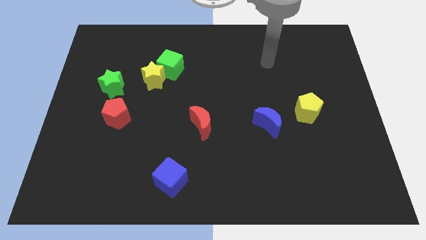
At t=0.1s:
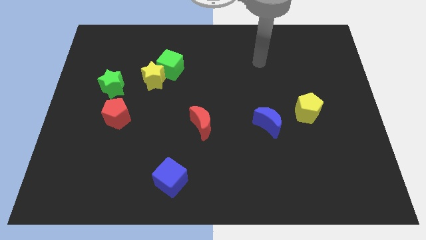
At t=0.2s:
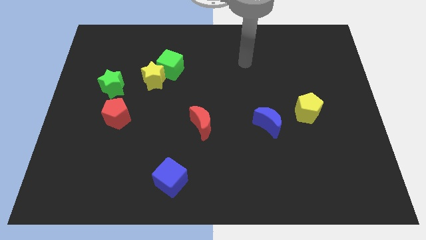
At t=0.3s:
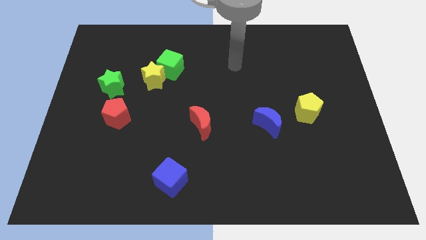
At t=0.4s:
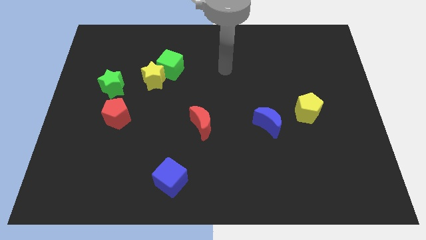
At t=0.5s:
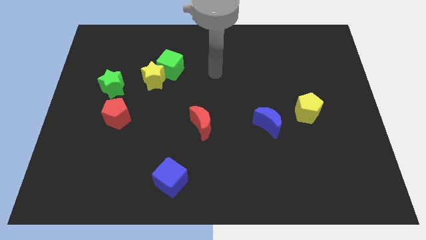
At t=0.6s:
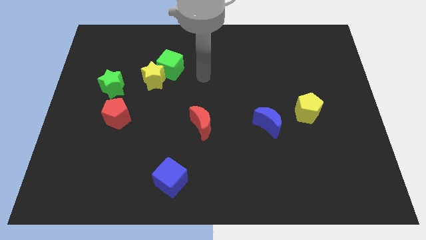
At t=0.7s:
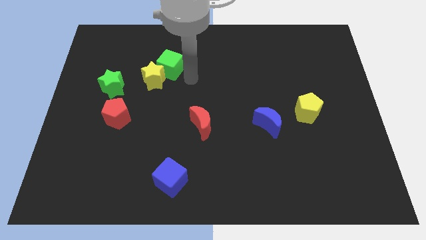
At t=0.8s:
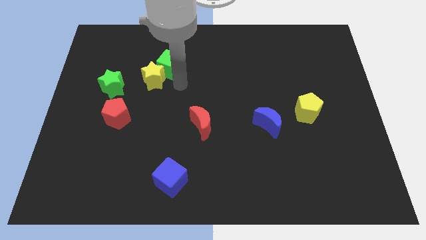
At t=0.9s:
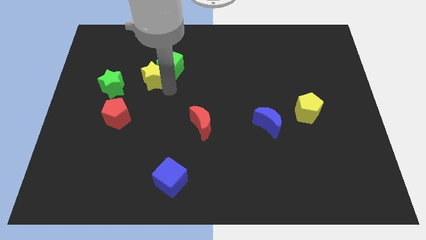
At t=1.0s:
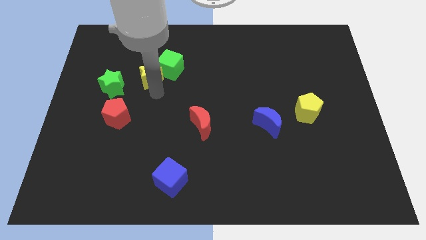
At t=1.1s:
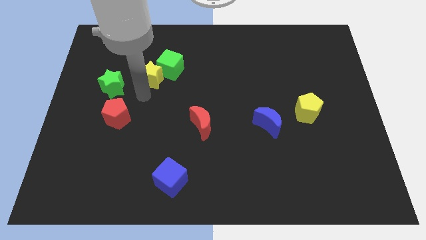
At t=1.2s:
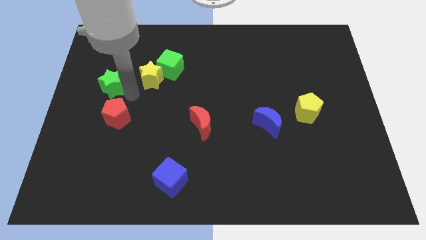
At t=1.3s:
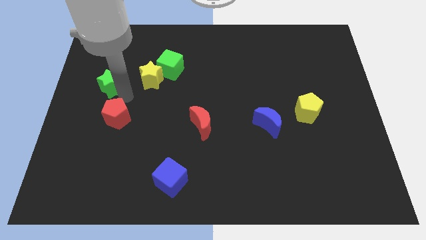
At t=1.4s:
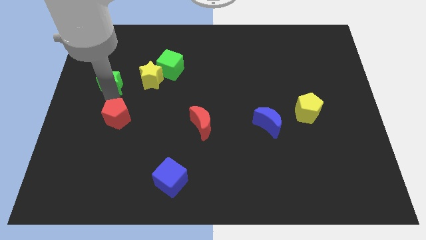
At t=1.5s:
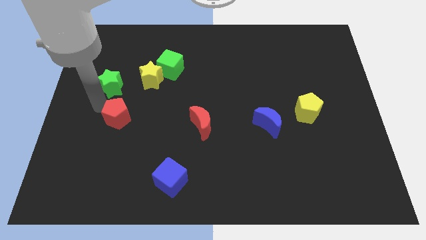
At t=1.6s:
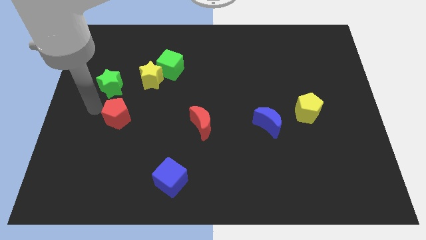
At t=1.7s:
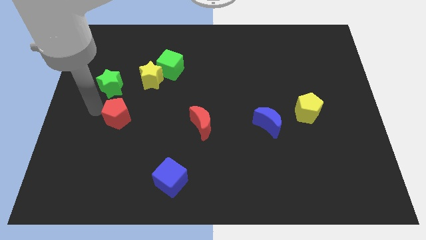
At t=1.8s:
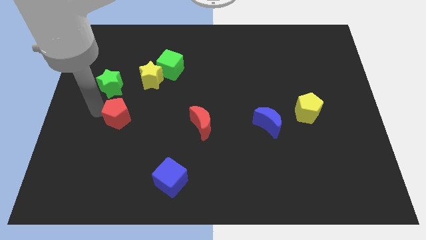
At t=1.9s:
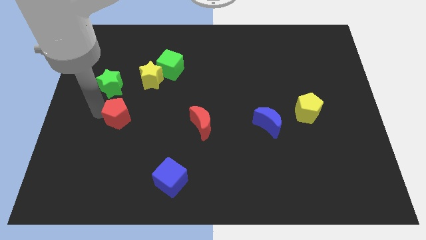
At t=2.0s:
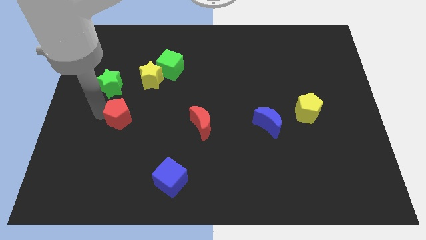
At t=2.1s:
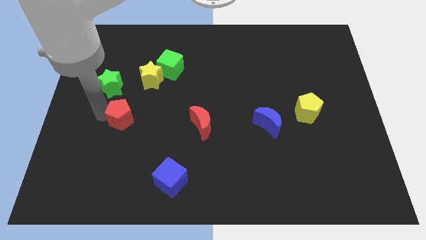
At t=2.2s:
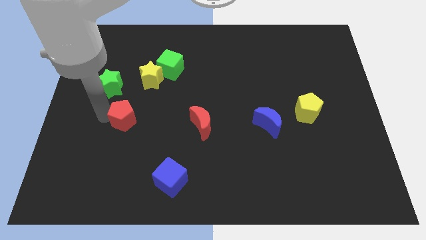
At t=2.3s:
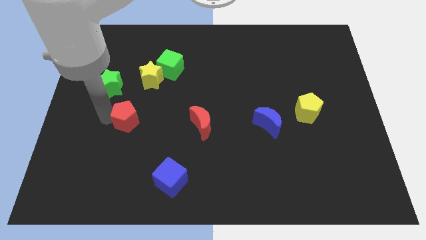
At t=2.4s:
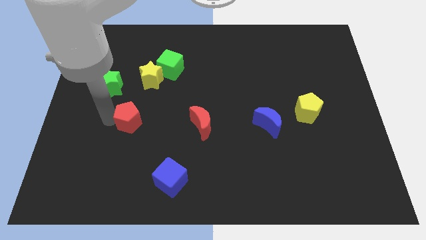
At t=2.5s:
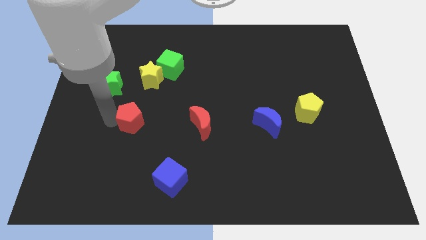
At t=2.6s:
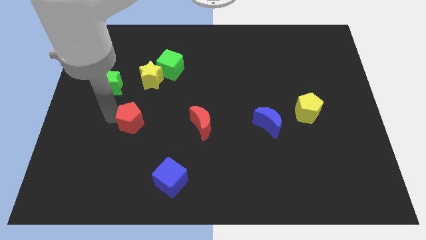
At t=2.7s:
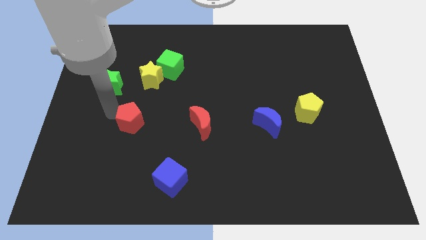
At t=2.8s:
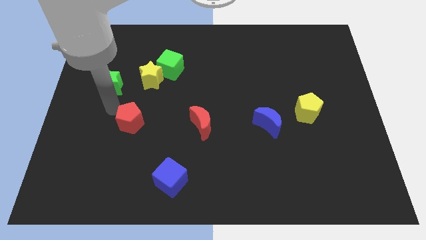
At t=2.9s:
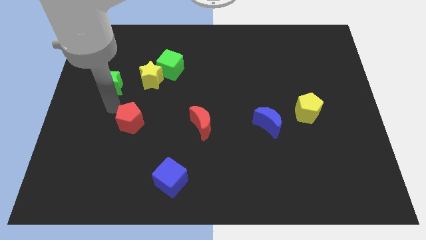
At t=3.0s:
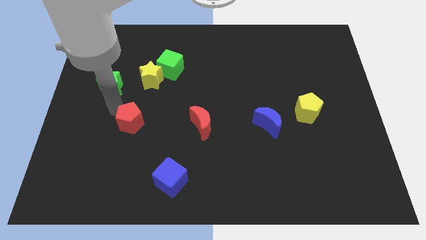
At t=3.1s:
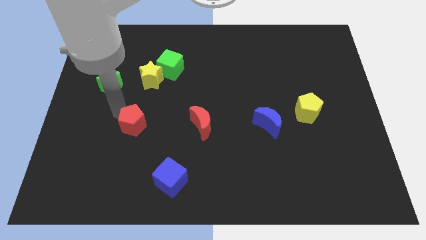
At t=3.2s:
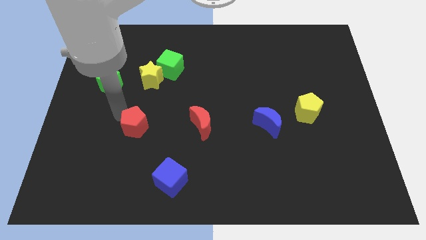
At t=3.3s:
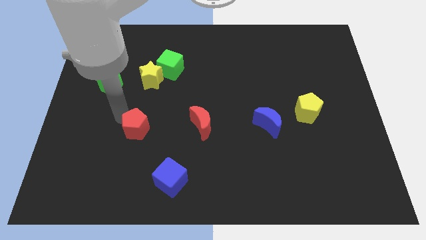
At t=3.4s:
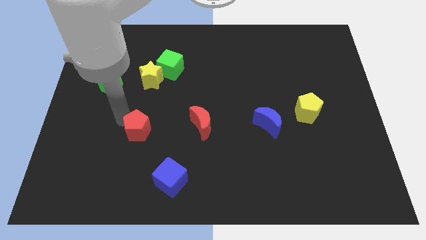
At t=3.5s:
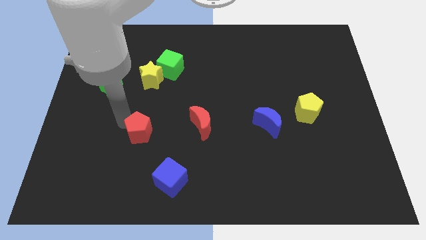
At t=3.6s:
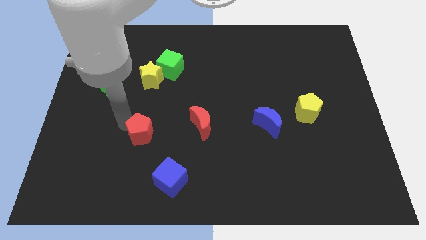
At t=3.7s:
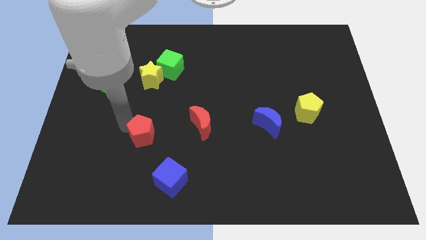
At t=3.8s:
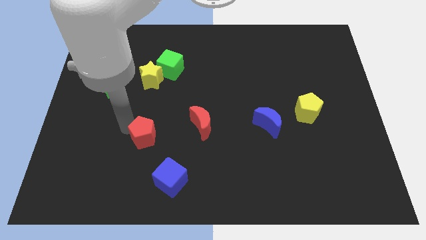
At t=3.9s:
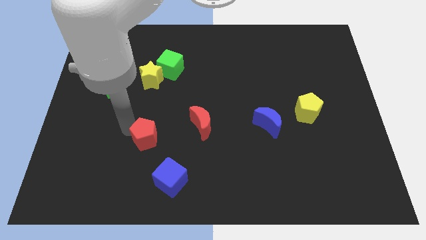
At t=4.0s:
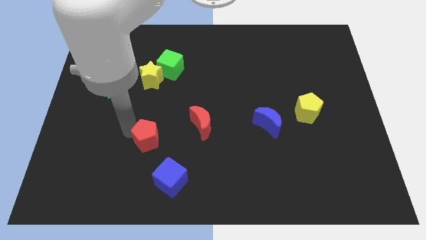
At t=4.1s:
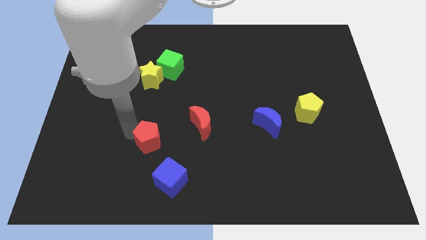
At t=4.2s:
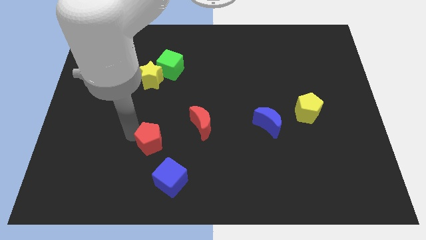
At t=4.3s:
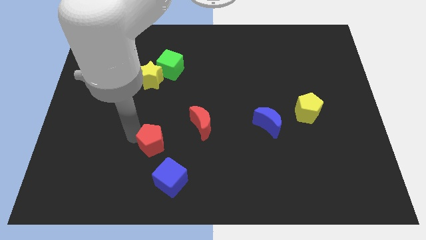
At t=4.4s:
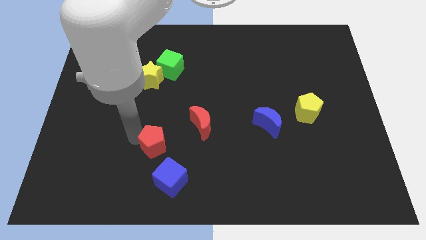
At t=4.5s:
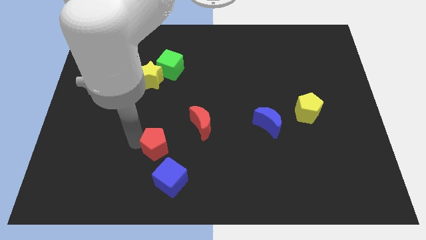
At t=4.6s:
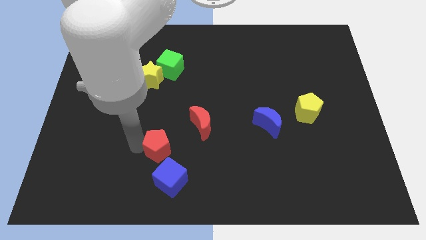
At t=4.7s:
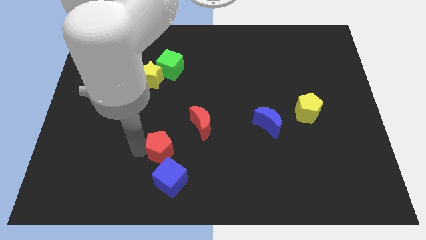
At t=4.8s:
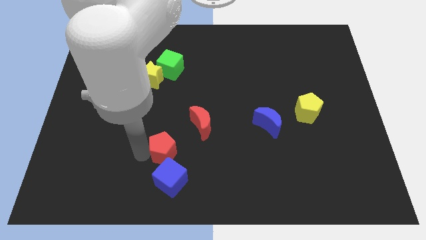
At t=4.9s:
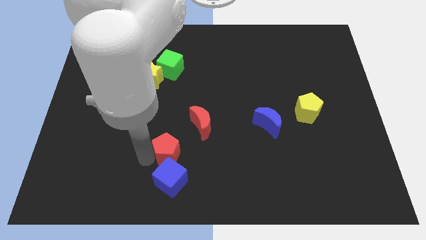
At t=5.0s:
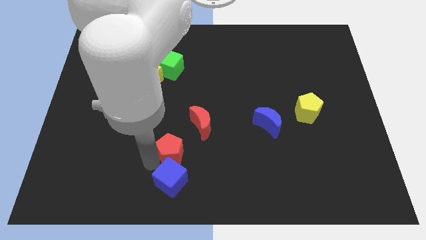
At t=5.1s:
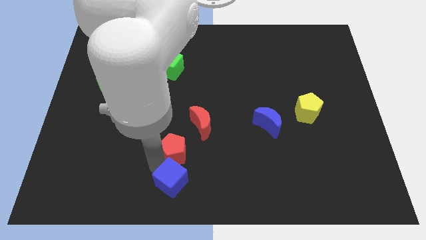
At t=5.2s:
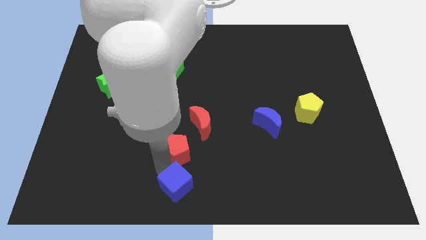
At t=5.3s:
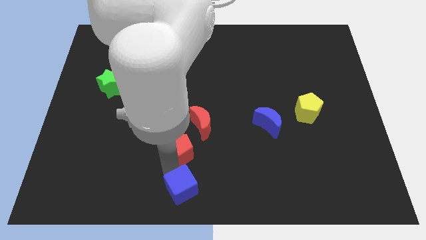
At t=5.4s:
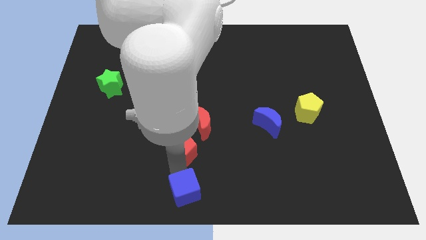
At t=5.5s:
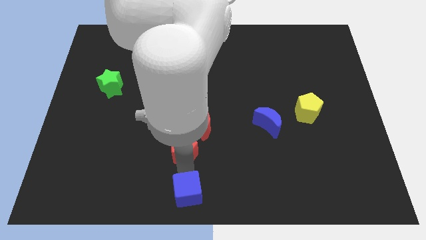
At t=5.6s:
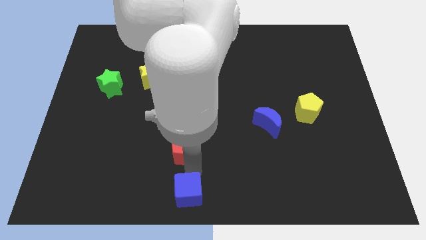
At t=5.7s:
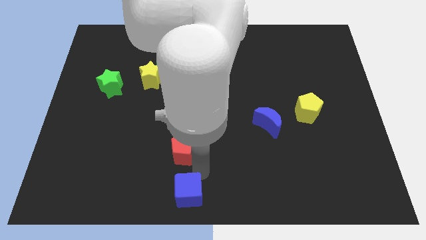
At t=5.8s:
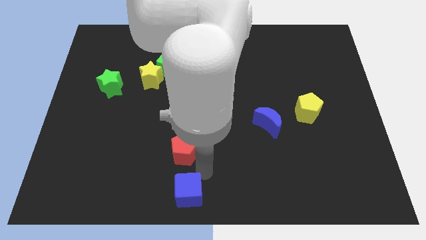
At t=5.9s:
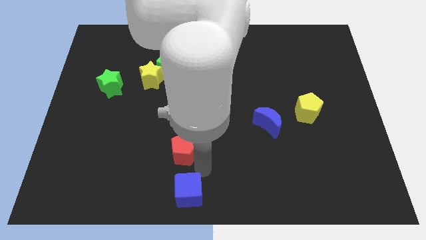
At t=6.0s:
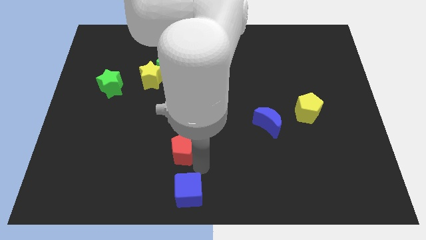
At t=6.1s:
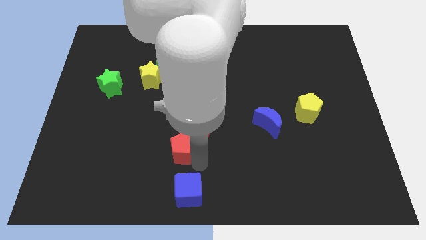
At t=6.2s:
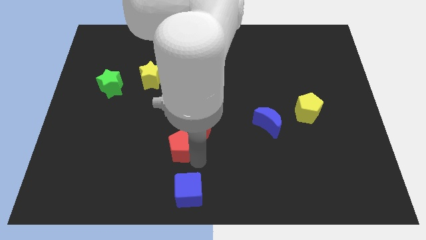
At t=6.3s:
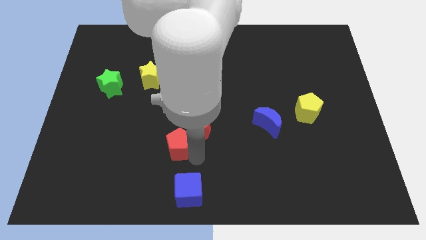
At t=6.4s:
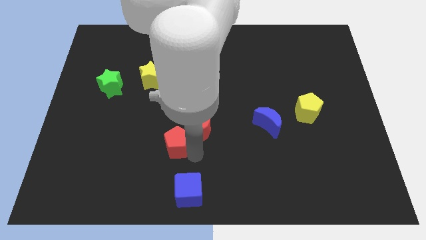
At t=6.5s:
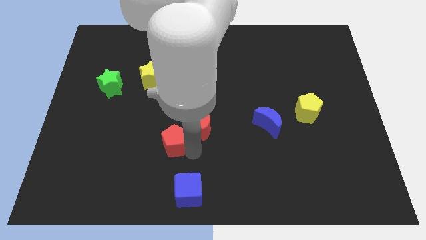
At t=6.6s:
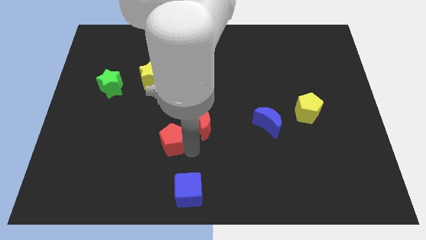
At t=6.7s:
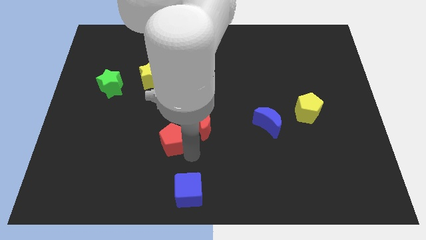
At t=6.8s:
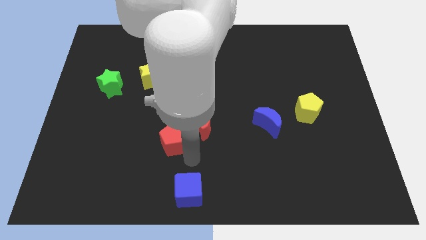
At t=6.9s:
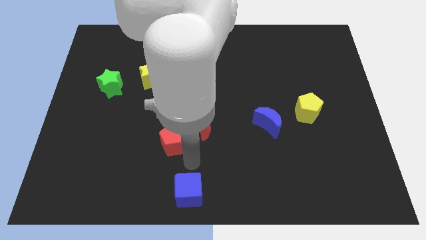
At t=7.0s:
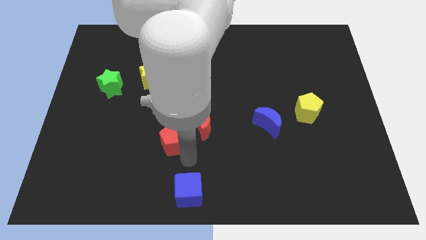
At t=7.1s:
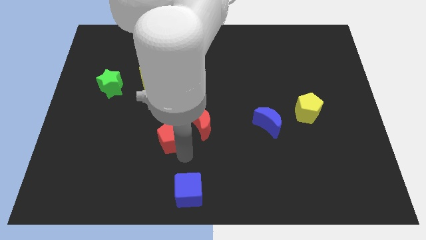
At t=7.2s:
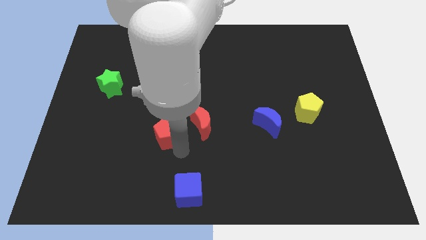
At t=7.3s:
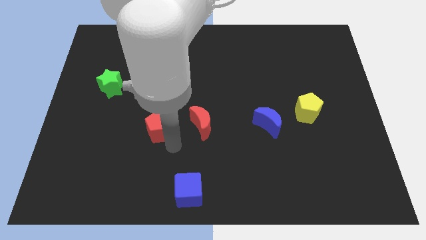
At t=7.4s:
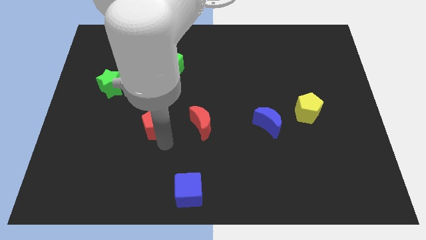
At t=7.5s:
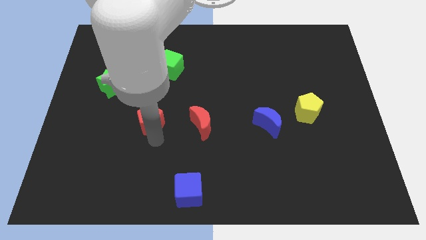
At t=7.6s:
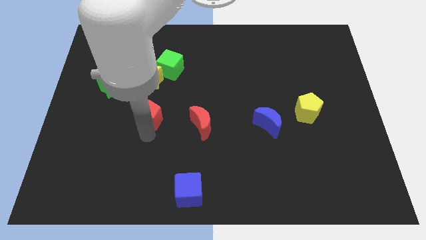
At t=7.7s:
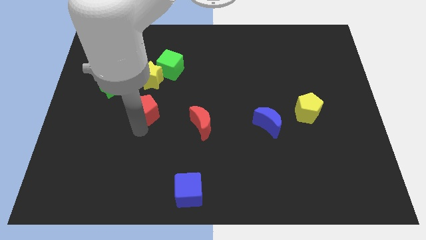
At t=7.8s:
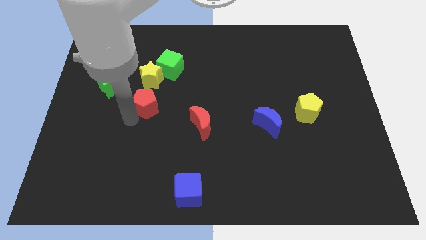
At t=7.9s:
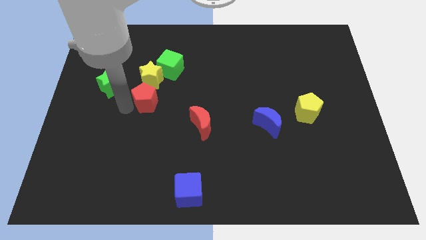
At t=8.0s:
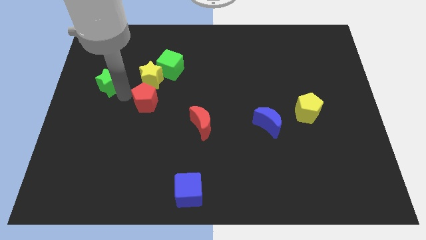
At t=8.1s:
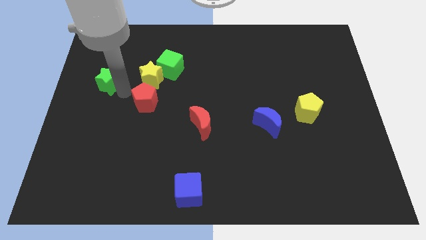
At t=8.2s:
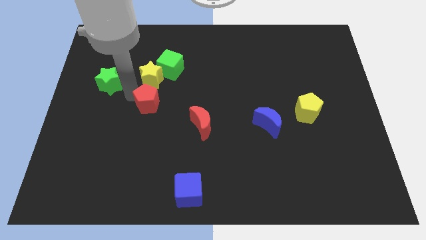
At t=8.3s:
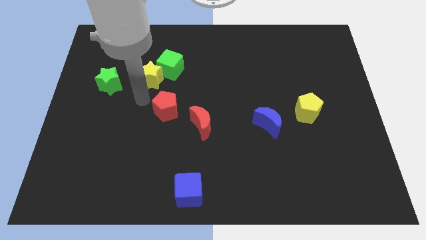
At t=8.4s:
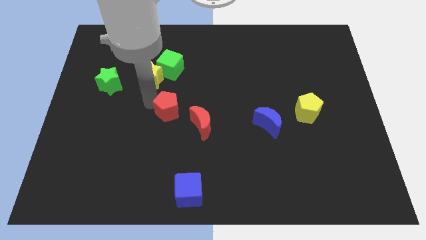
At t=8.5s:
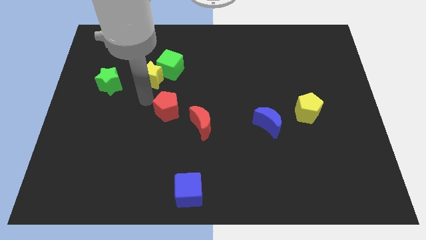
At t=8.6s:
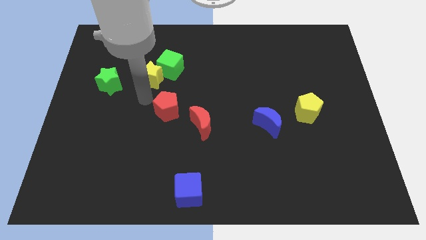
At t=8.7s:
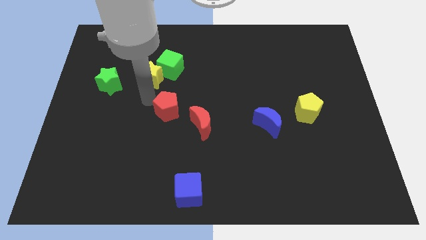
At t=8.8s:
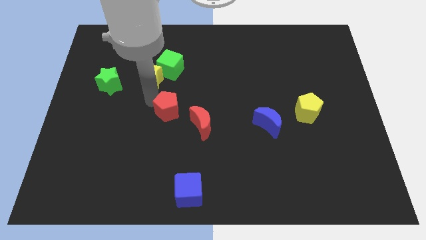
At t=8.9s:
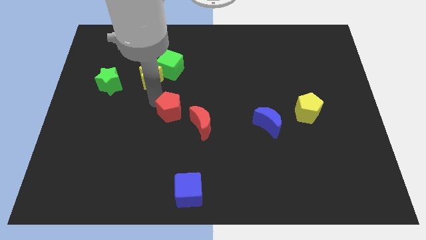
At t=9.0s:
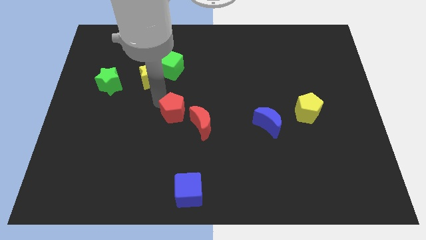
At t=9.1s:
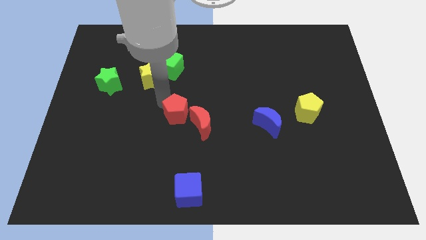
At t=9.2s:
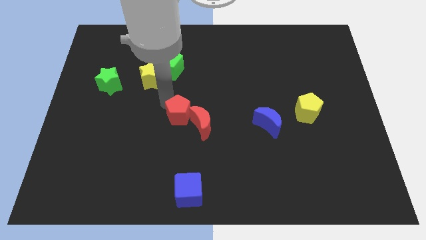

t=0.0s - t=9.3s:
put the red pentagon next to the red moon
